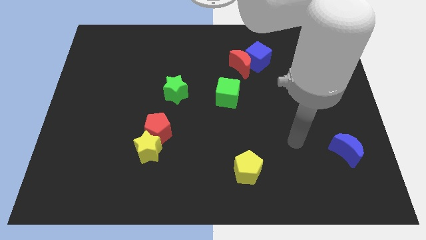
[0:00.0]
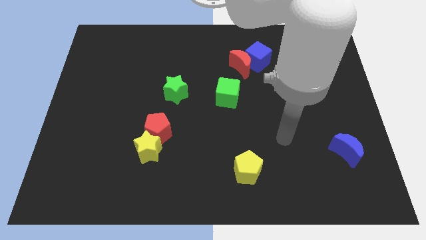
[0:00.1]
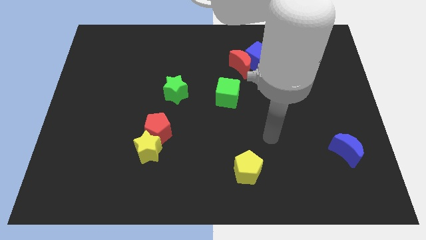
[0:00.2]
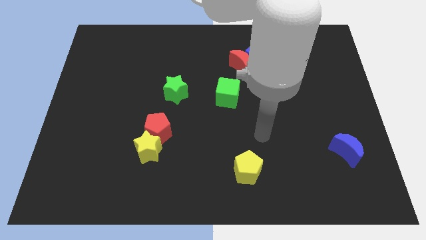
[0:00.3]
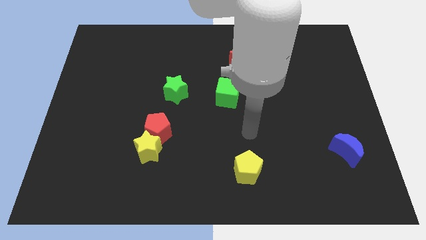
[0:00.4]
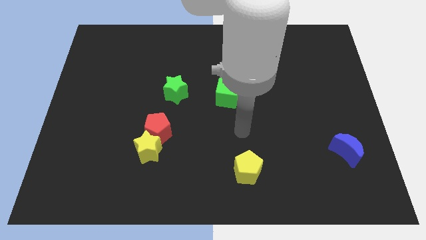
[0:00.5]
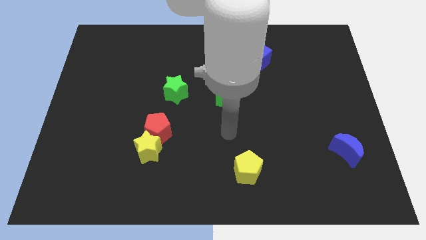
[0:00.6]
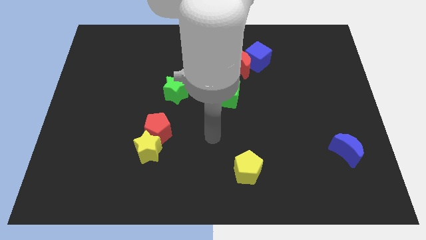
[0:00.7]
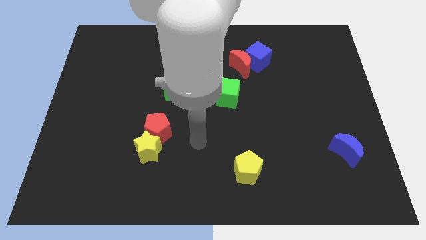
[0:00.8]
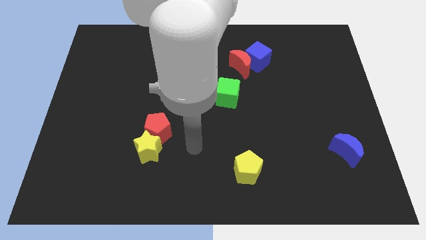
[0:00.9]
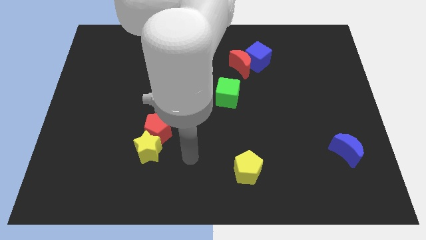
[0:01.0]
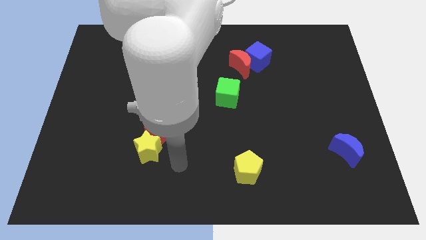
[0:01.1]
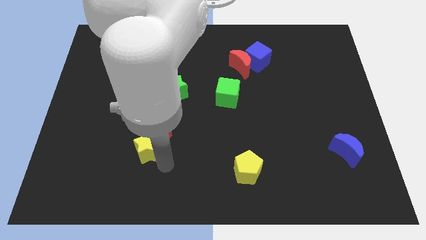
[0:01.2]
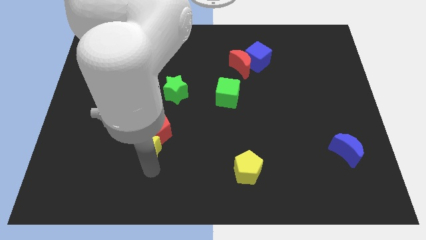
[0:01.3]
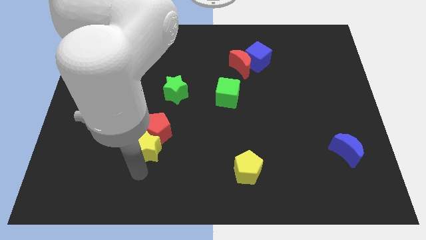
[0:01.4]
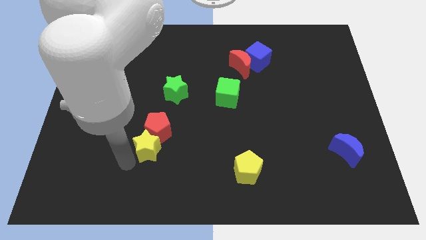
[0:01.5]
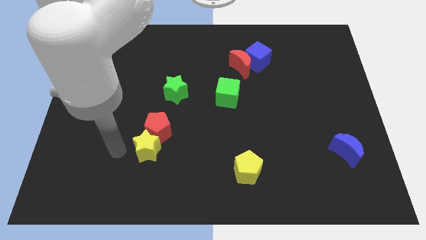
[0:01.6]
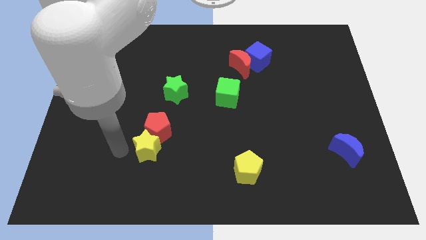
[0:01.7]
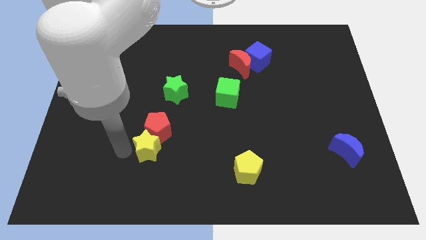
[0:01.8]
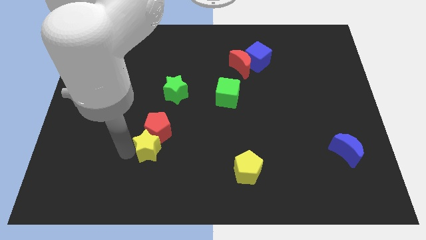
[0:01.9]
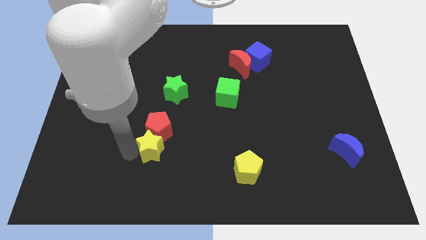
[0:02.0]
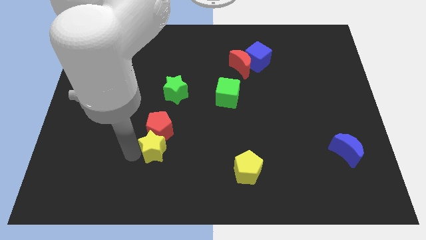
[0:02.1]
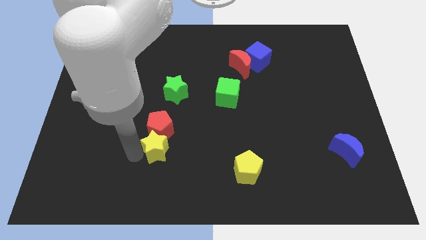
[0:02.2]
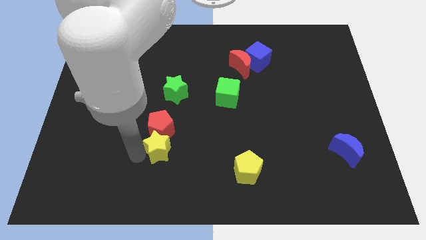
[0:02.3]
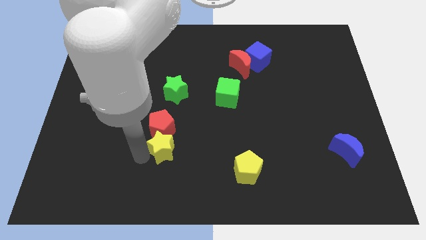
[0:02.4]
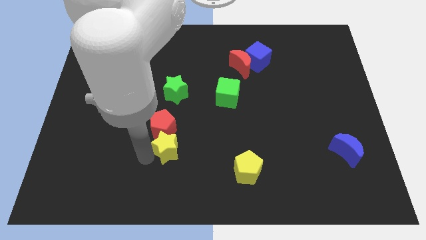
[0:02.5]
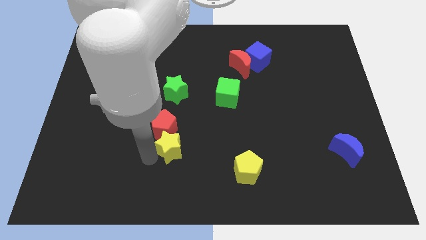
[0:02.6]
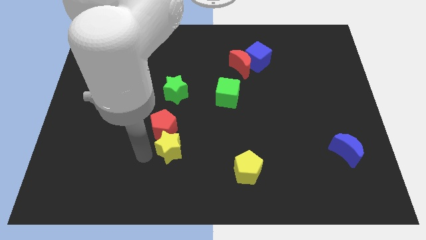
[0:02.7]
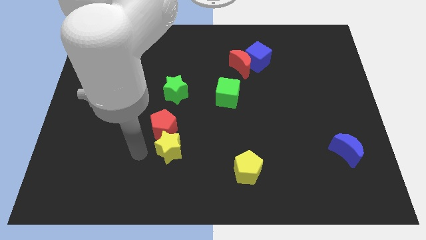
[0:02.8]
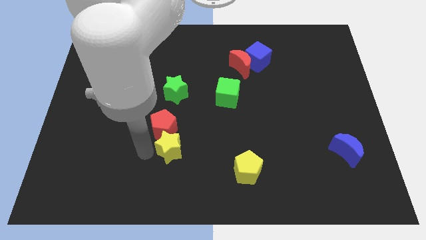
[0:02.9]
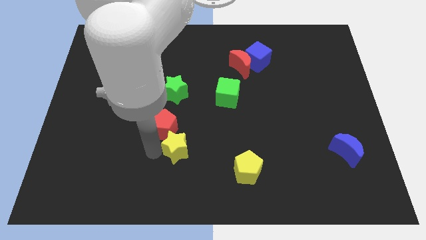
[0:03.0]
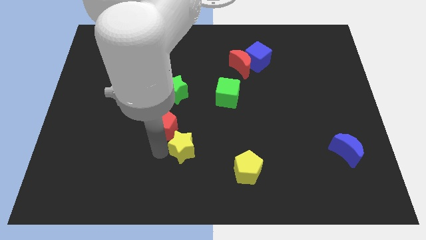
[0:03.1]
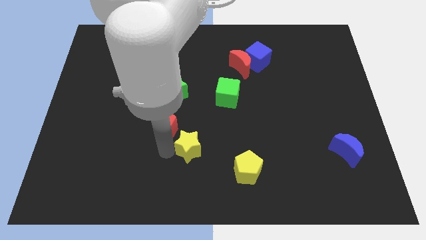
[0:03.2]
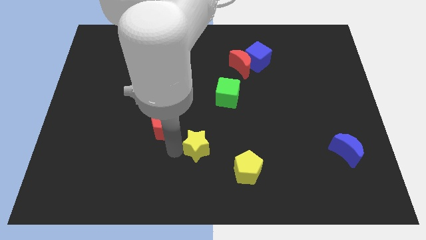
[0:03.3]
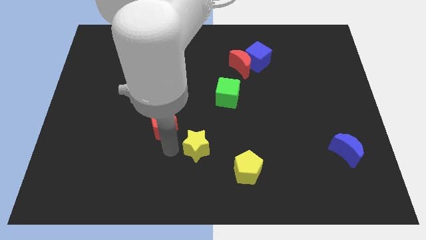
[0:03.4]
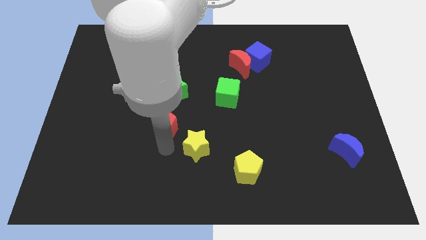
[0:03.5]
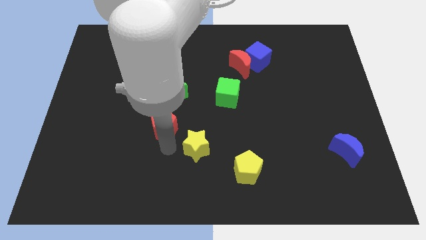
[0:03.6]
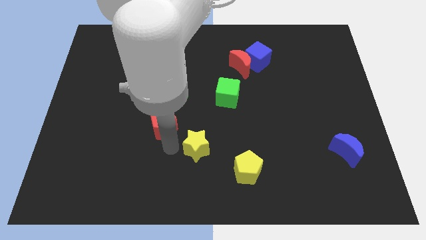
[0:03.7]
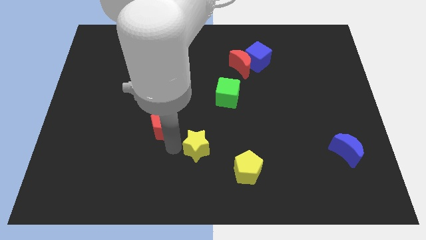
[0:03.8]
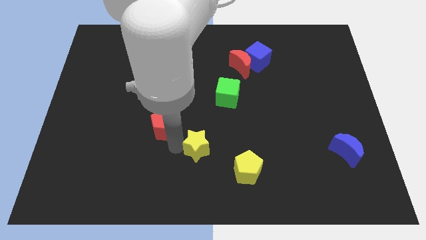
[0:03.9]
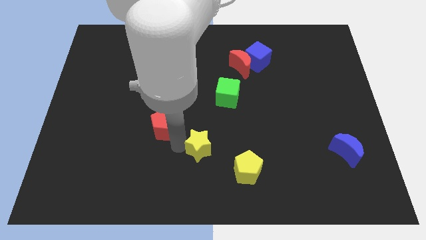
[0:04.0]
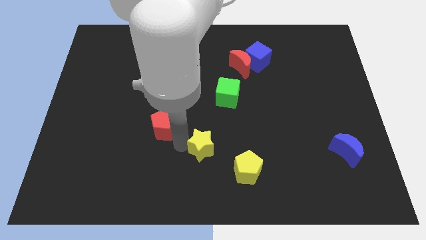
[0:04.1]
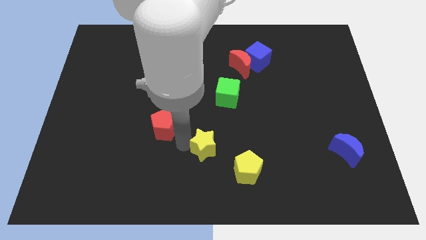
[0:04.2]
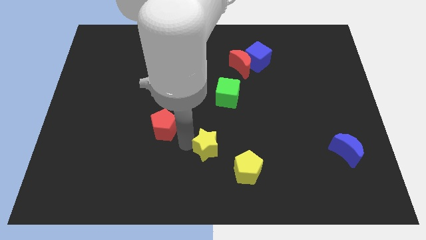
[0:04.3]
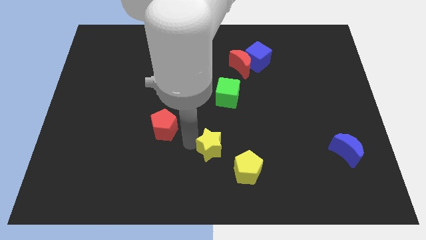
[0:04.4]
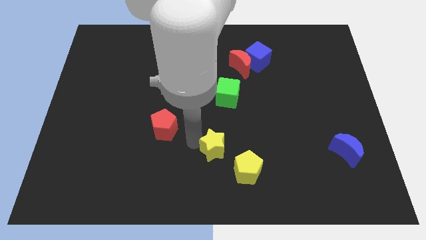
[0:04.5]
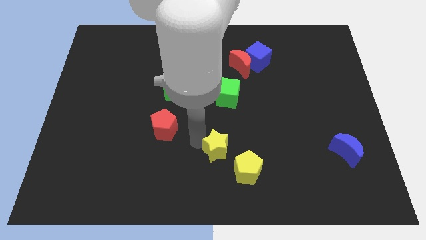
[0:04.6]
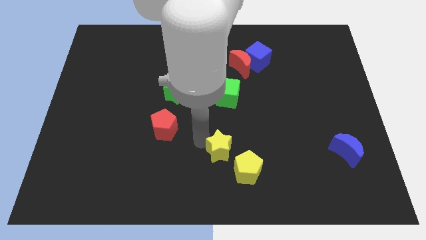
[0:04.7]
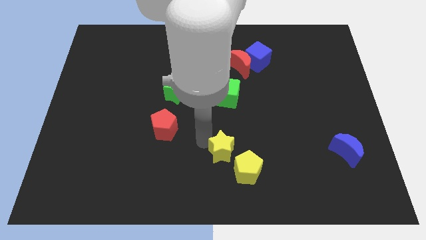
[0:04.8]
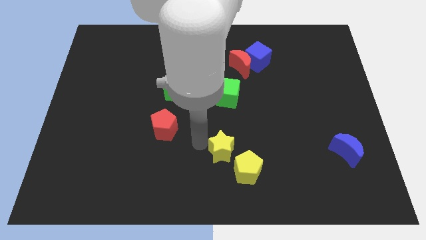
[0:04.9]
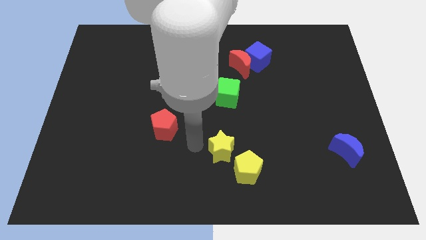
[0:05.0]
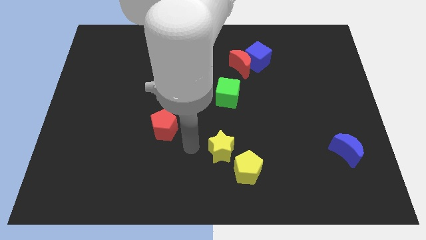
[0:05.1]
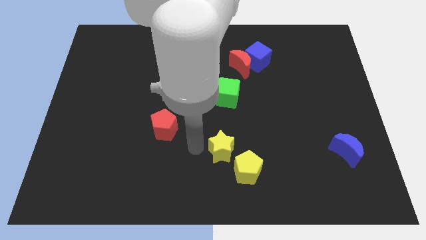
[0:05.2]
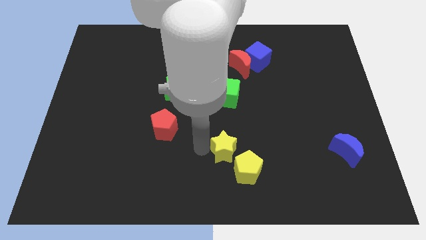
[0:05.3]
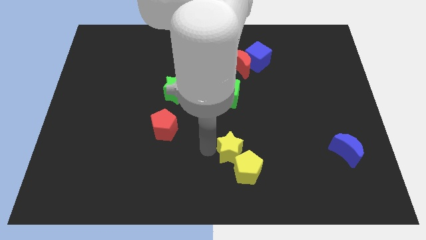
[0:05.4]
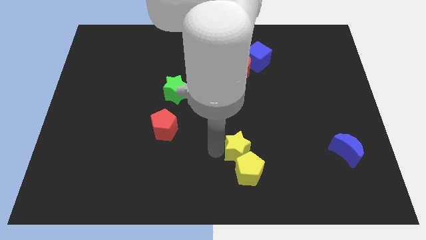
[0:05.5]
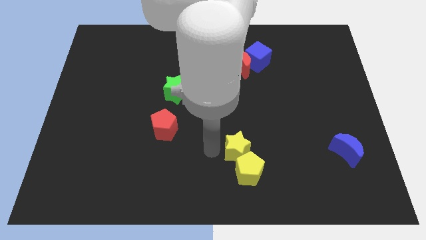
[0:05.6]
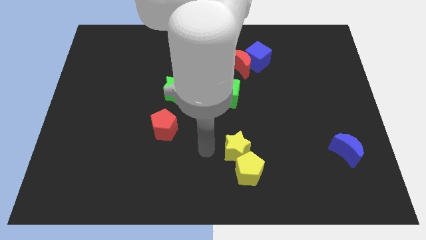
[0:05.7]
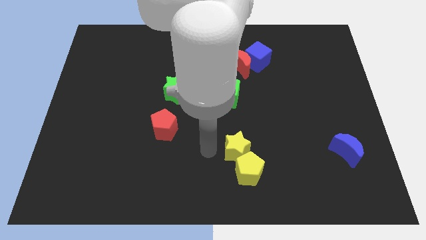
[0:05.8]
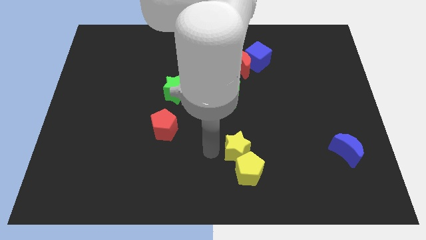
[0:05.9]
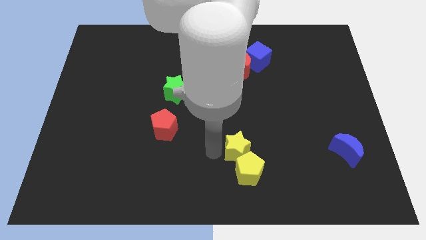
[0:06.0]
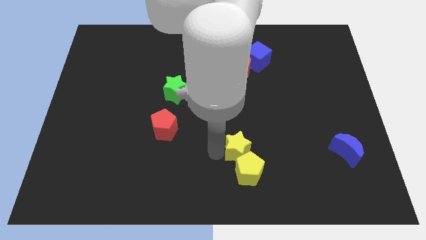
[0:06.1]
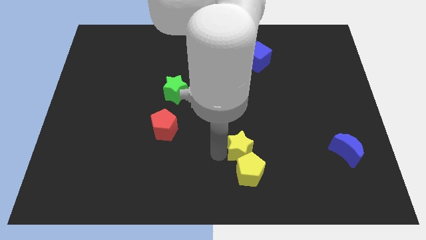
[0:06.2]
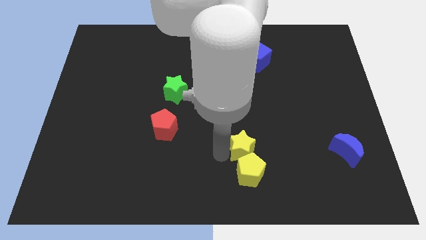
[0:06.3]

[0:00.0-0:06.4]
push the yellow star right

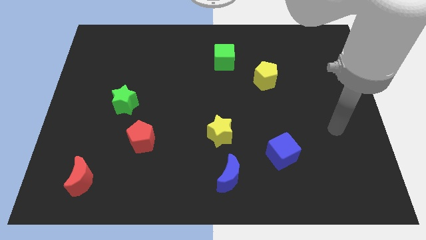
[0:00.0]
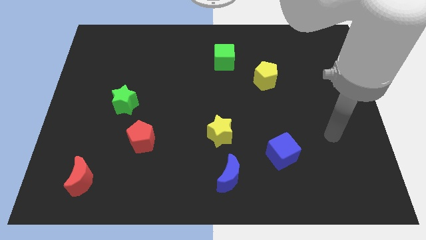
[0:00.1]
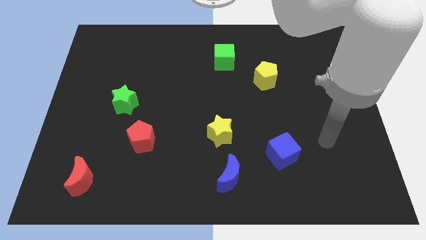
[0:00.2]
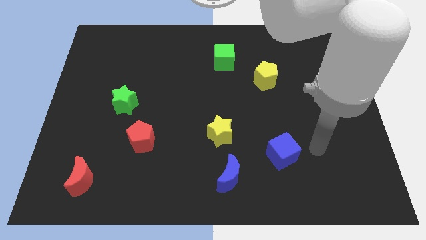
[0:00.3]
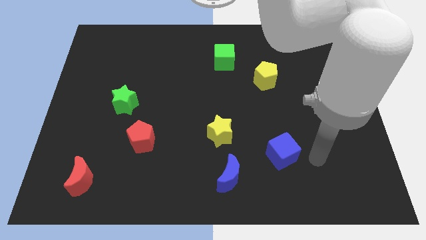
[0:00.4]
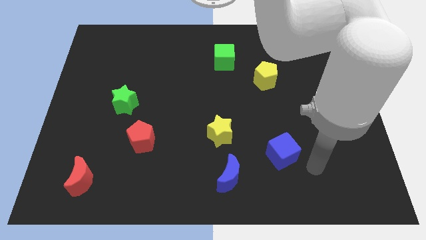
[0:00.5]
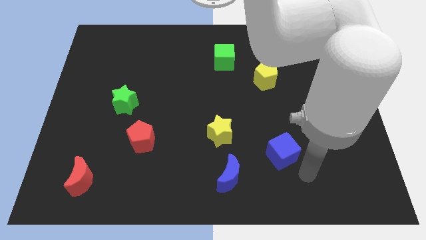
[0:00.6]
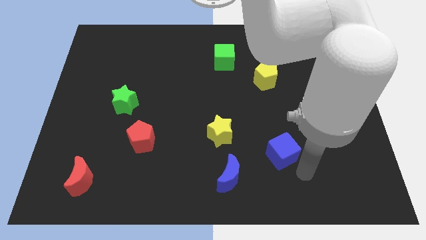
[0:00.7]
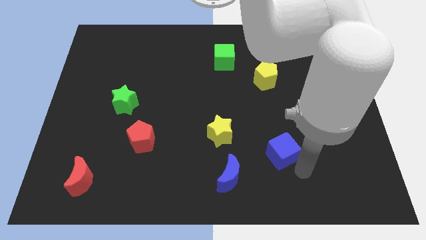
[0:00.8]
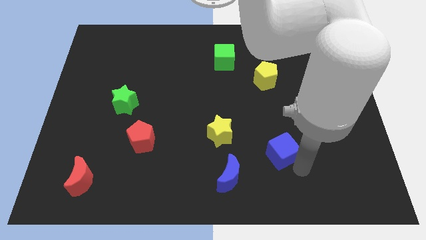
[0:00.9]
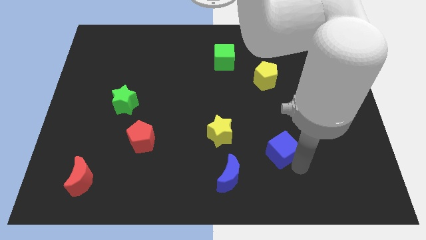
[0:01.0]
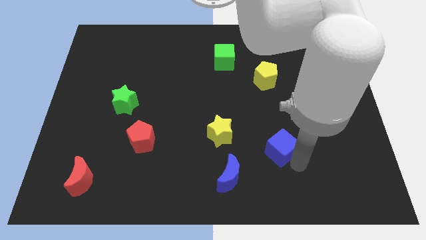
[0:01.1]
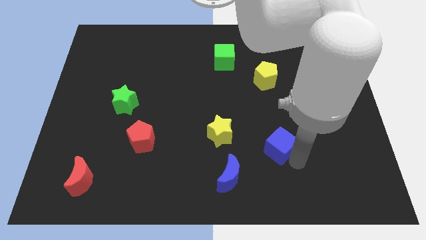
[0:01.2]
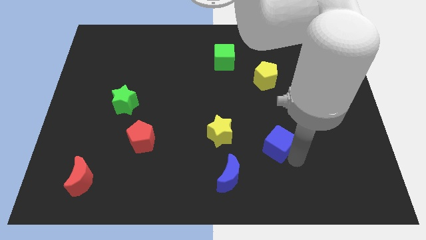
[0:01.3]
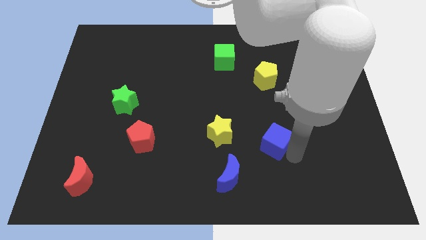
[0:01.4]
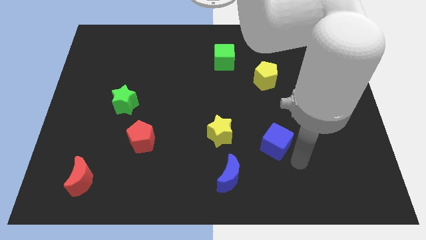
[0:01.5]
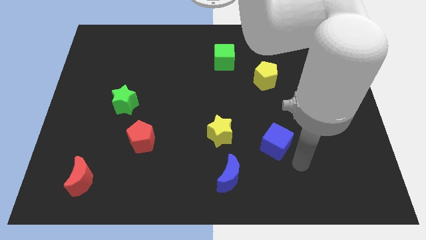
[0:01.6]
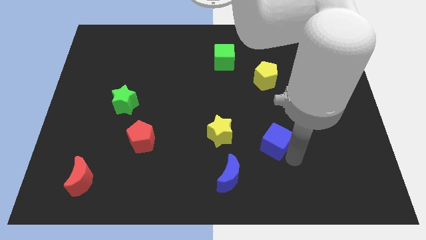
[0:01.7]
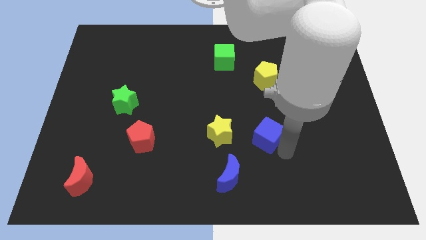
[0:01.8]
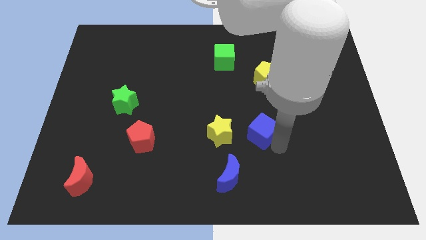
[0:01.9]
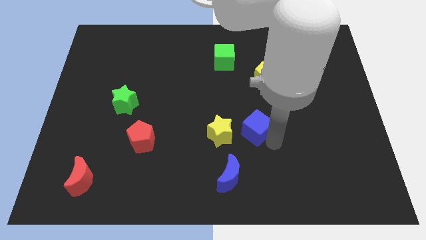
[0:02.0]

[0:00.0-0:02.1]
slightly move the blue cube up and to the left diagonally
